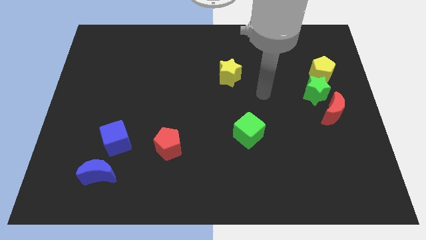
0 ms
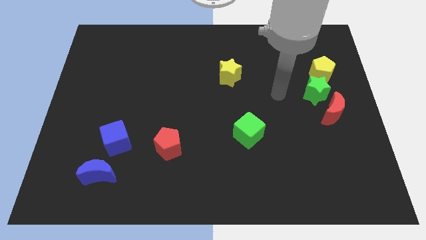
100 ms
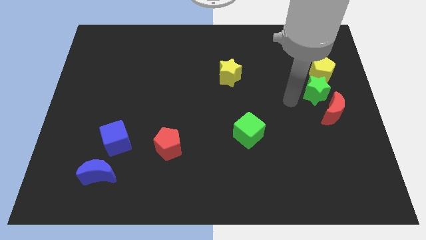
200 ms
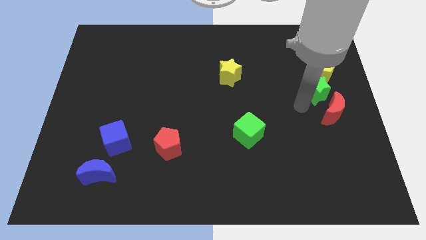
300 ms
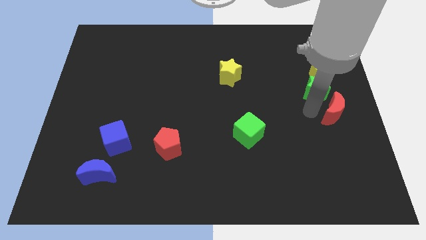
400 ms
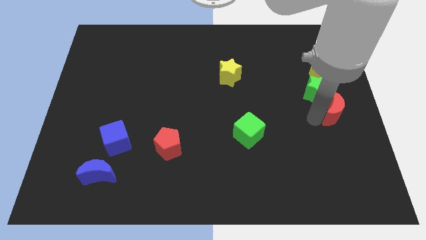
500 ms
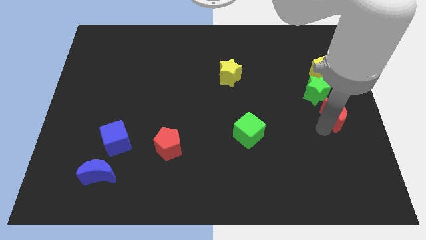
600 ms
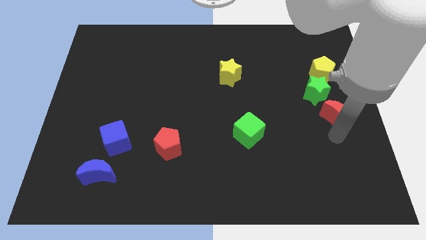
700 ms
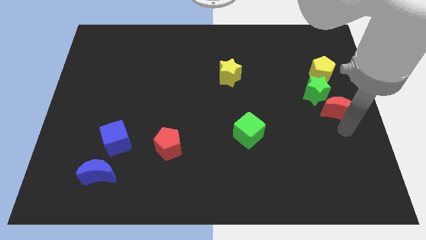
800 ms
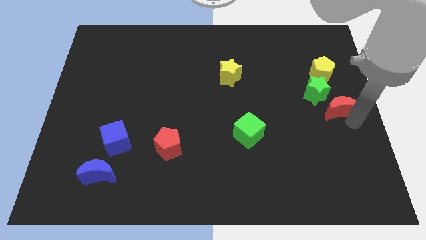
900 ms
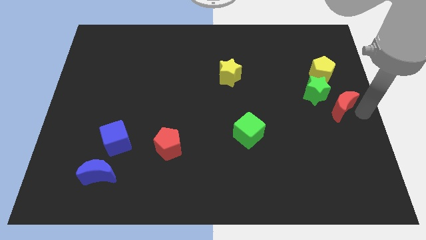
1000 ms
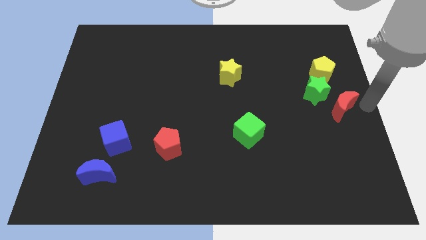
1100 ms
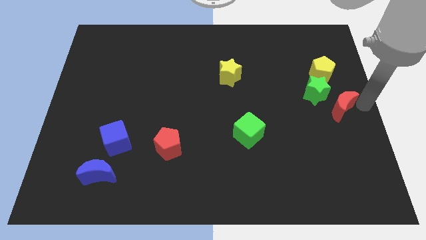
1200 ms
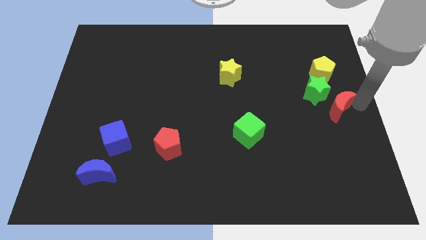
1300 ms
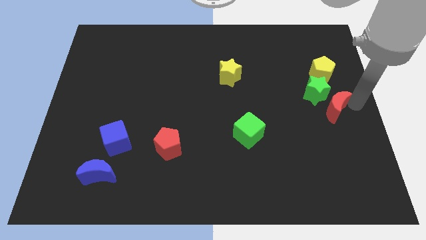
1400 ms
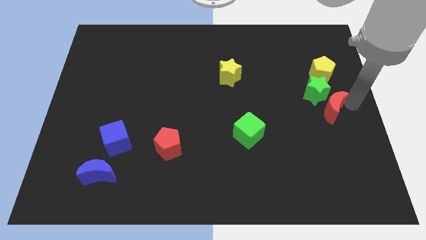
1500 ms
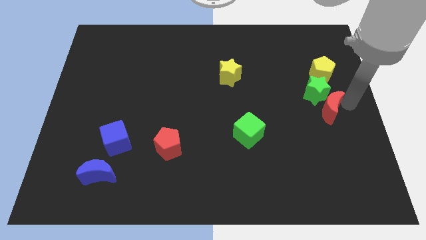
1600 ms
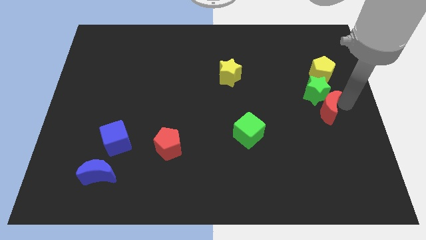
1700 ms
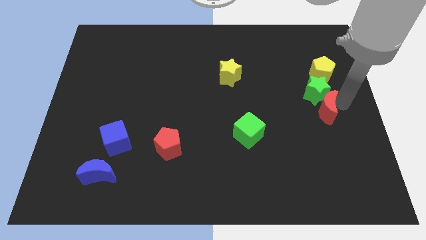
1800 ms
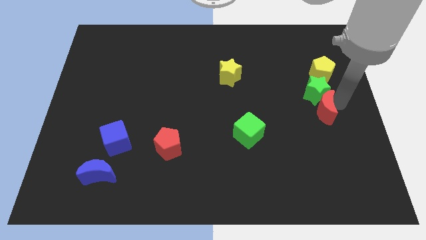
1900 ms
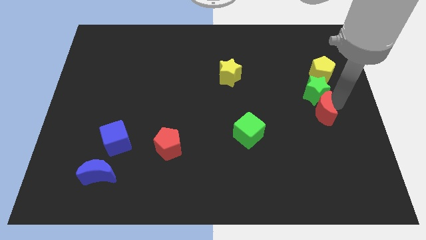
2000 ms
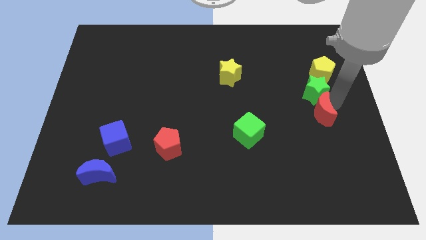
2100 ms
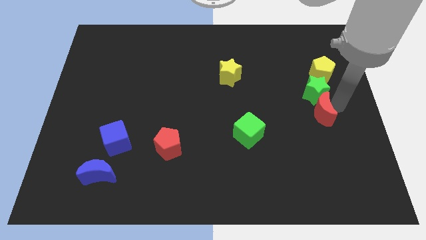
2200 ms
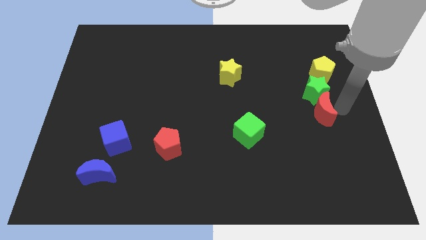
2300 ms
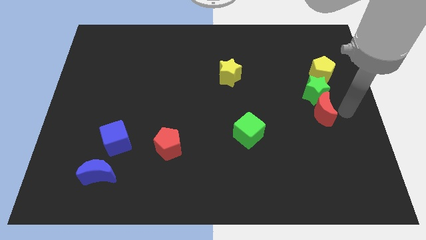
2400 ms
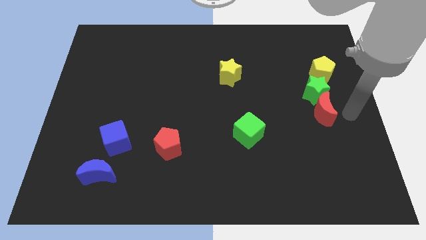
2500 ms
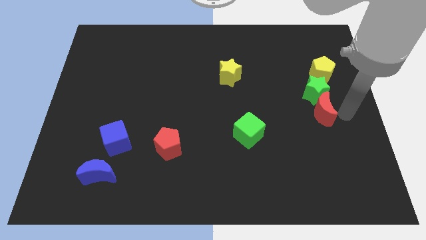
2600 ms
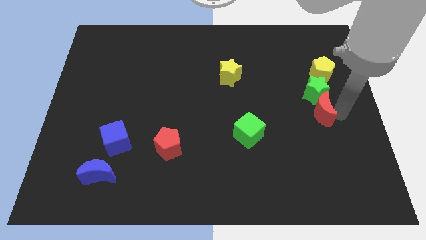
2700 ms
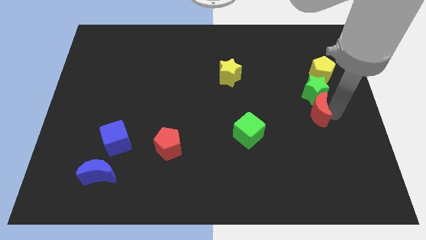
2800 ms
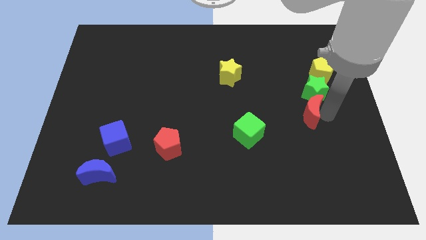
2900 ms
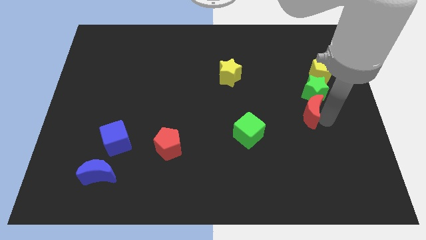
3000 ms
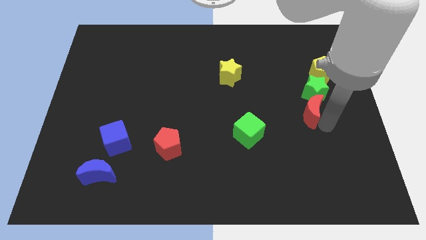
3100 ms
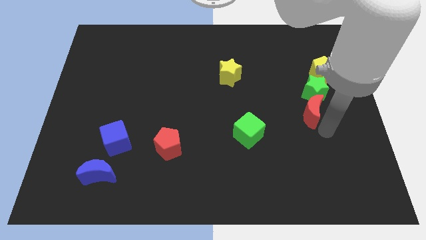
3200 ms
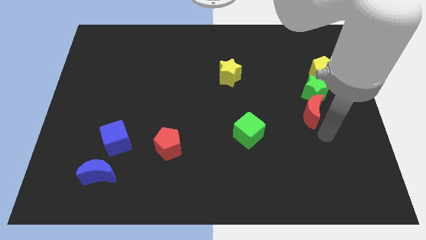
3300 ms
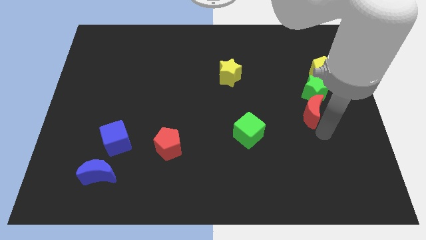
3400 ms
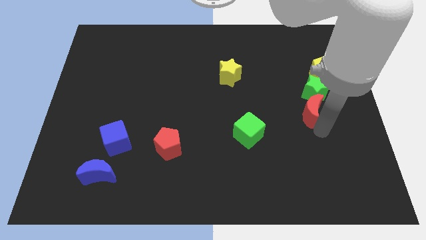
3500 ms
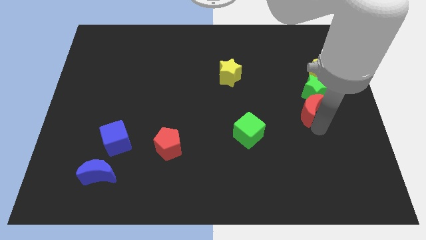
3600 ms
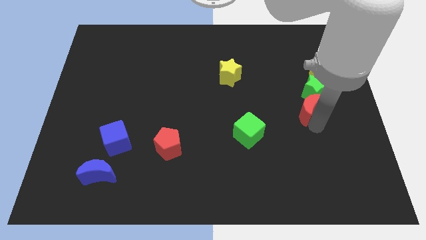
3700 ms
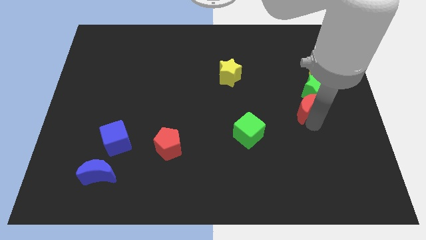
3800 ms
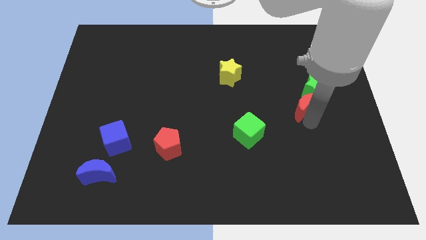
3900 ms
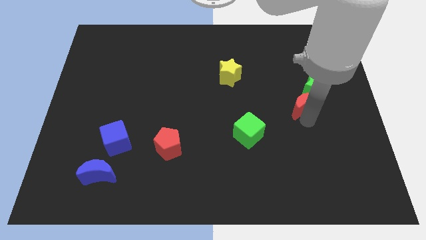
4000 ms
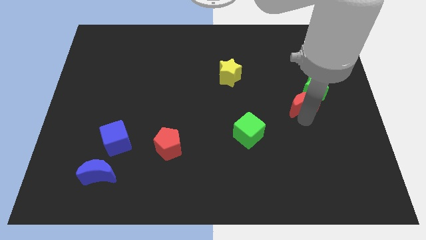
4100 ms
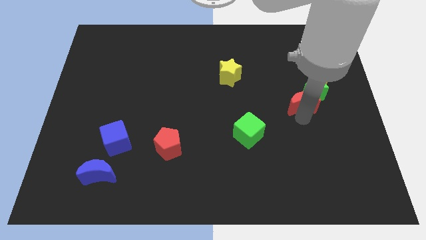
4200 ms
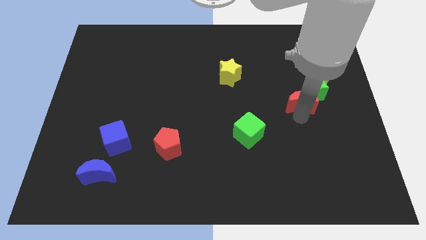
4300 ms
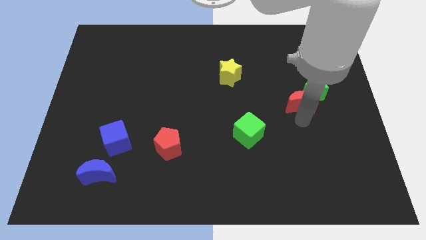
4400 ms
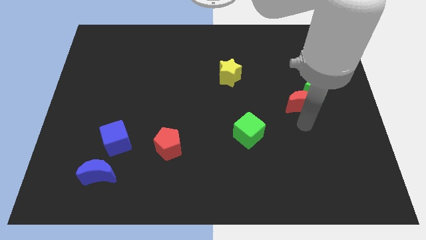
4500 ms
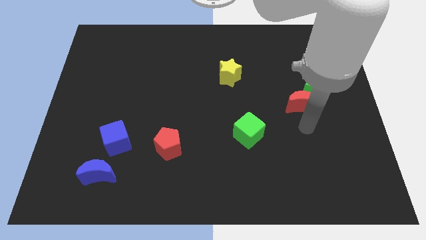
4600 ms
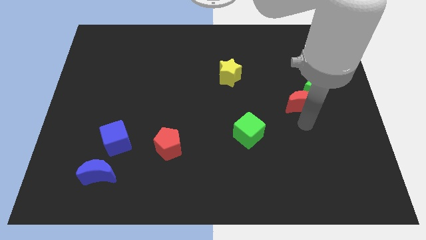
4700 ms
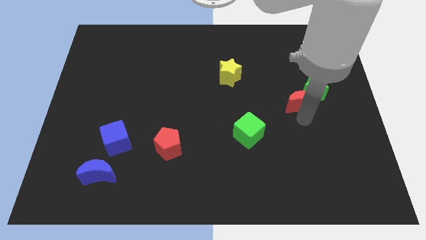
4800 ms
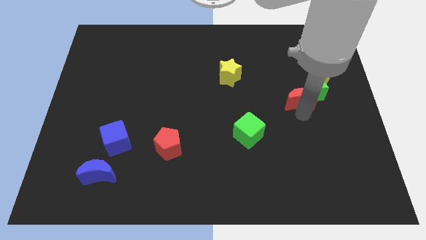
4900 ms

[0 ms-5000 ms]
slightly push the red moon upwards and then to the left

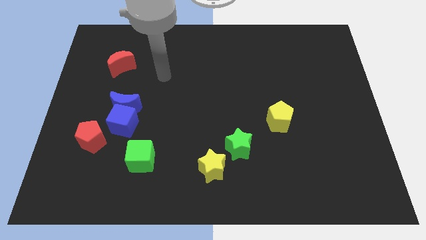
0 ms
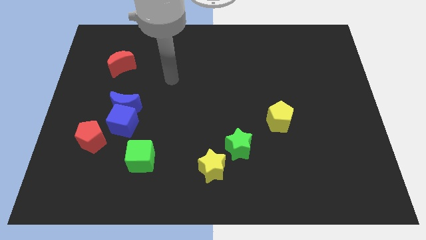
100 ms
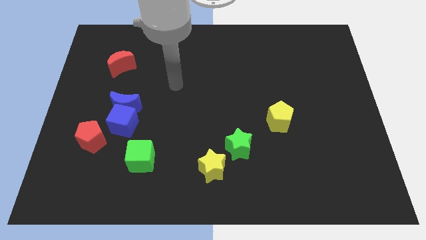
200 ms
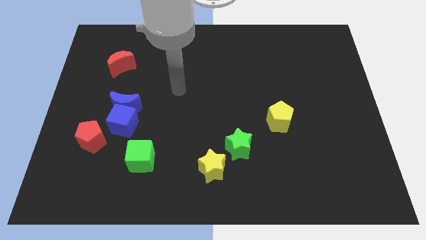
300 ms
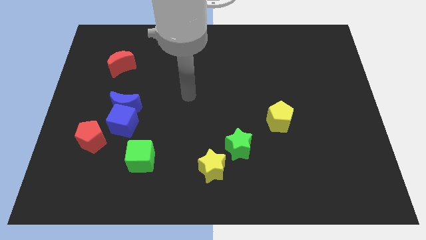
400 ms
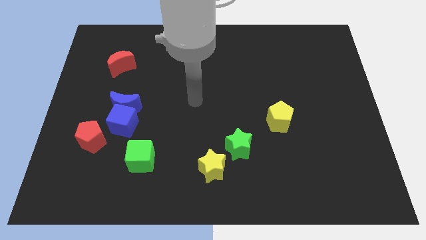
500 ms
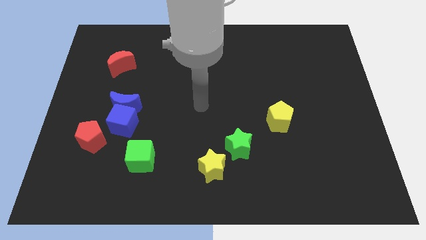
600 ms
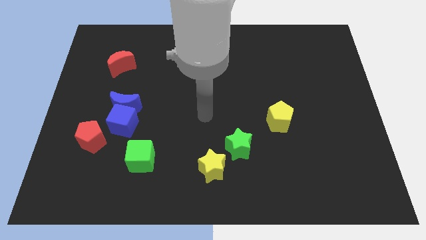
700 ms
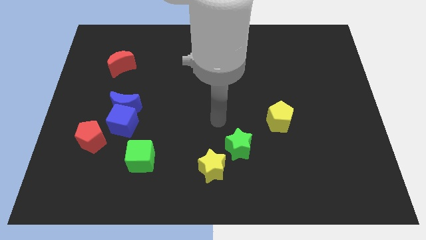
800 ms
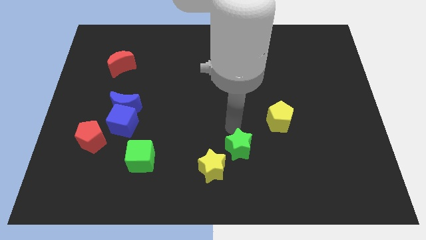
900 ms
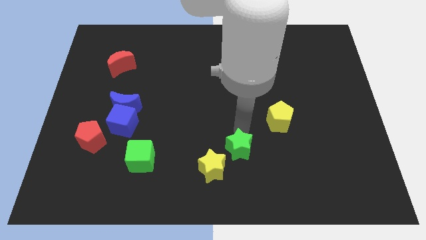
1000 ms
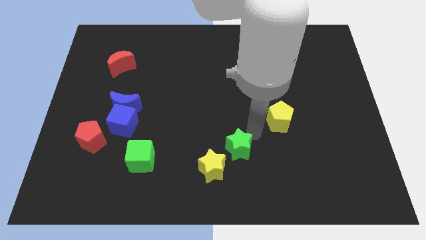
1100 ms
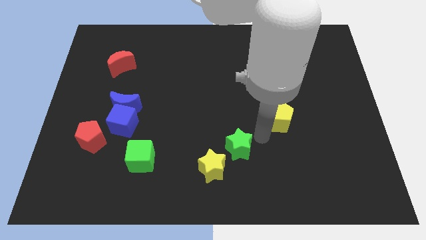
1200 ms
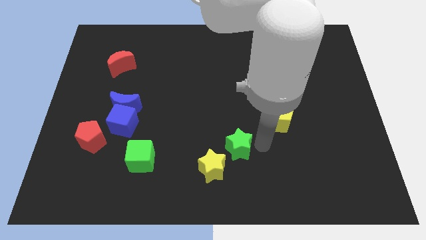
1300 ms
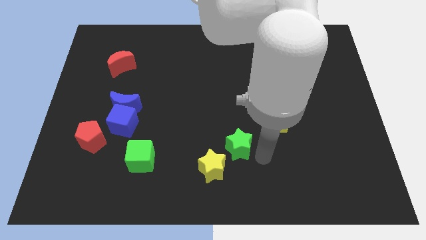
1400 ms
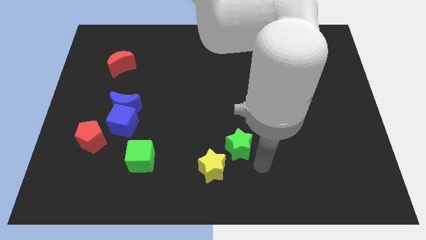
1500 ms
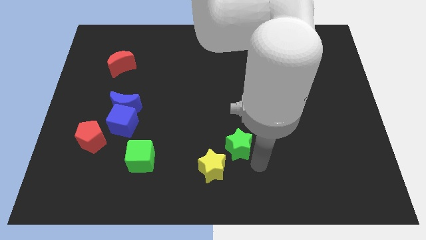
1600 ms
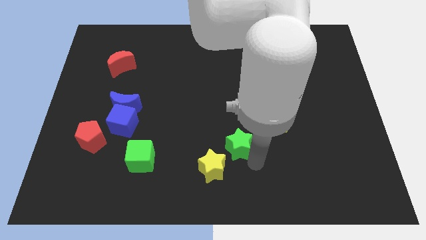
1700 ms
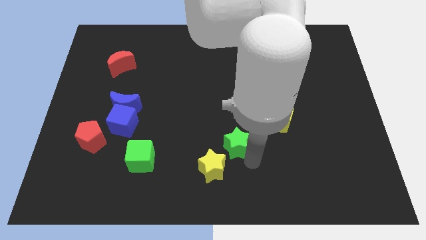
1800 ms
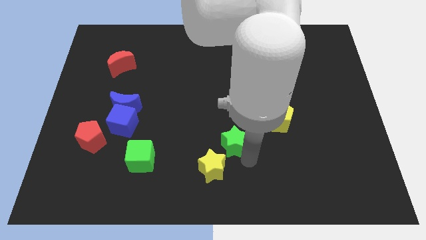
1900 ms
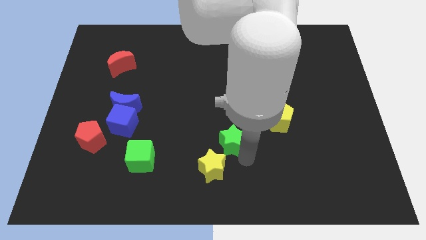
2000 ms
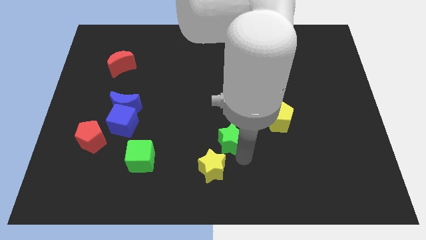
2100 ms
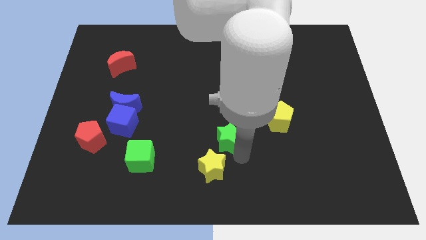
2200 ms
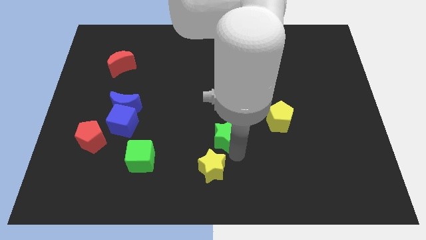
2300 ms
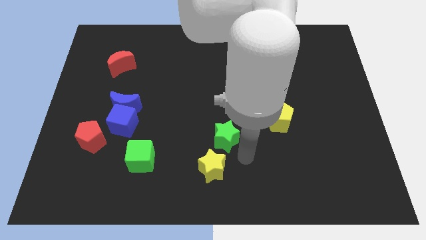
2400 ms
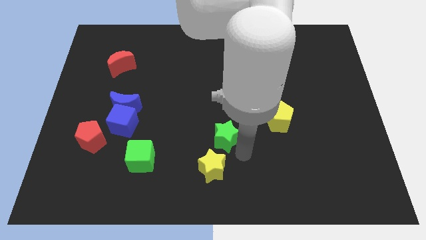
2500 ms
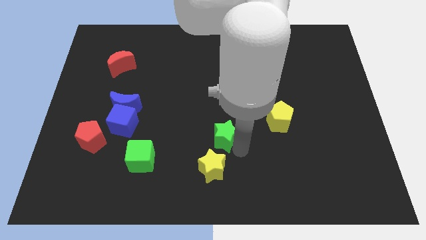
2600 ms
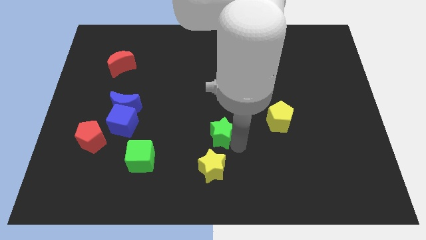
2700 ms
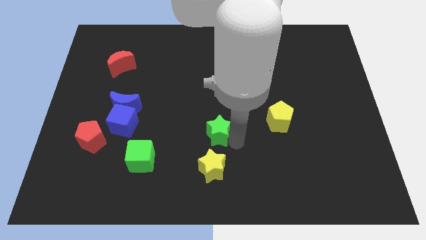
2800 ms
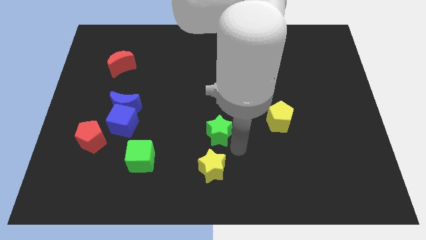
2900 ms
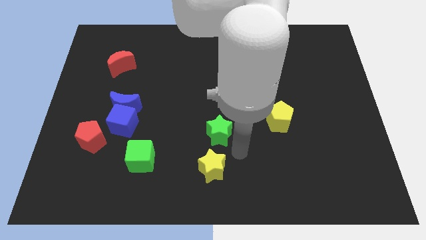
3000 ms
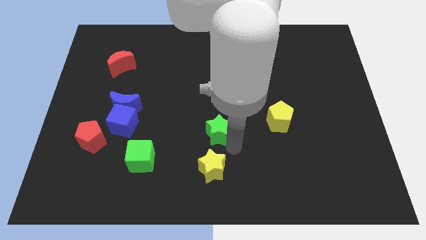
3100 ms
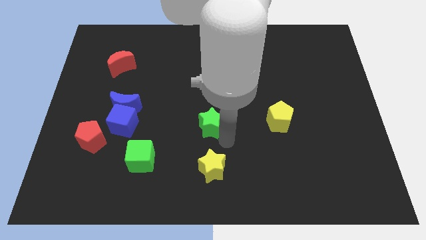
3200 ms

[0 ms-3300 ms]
slightly push the green star diagonally upwards and left
